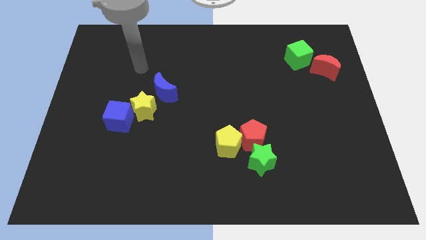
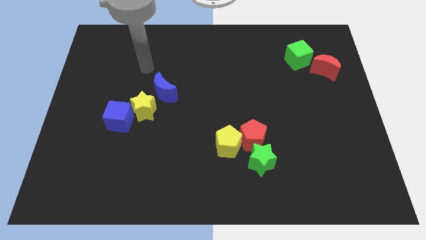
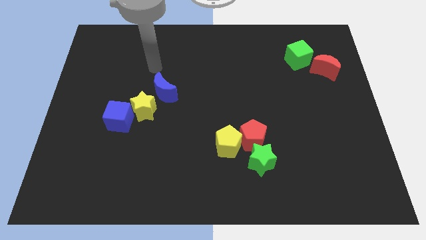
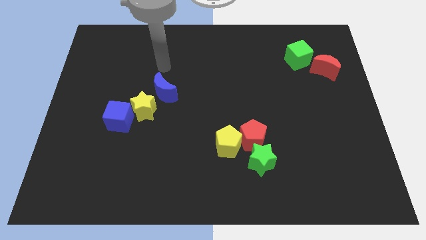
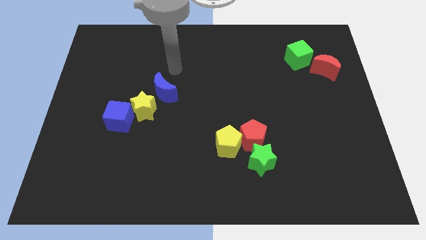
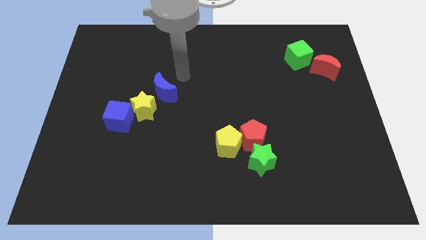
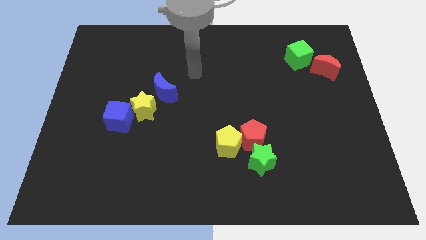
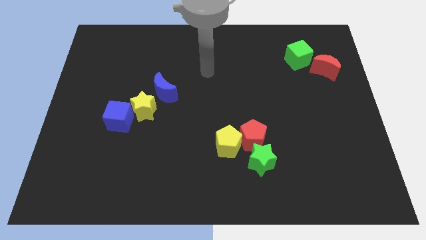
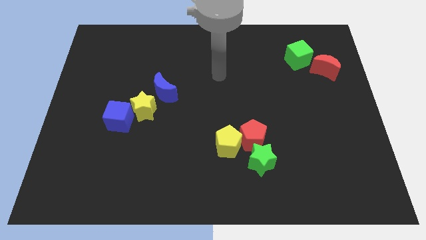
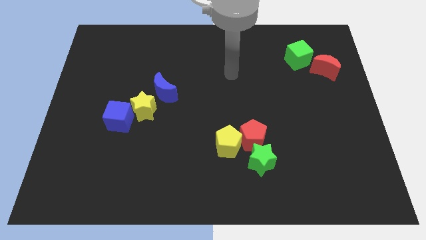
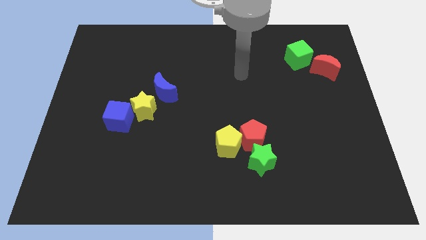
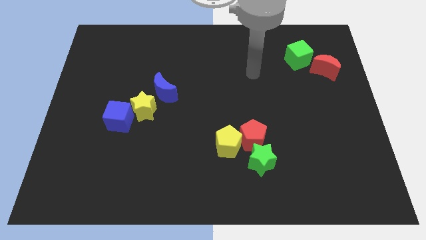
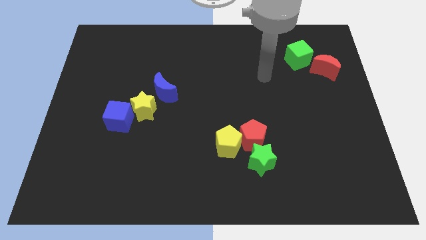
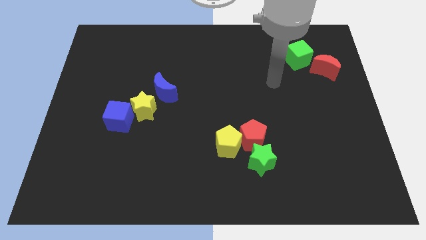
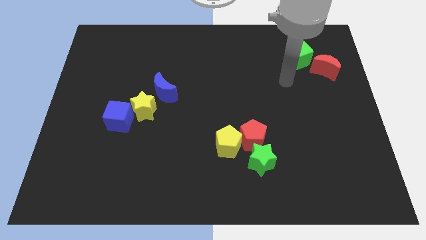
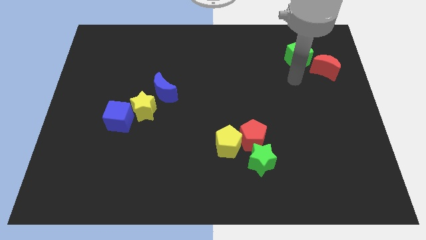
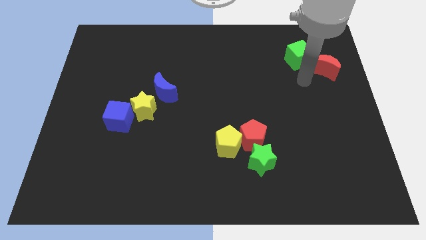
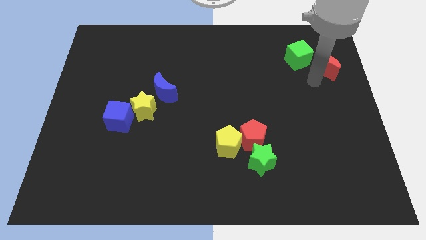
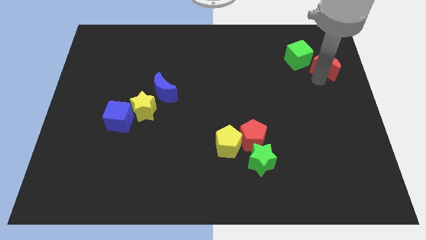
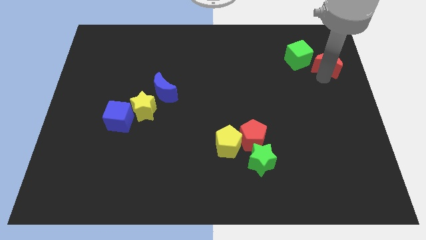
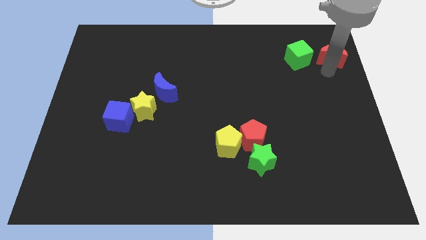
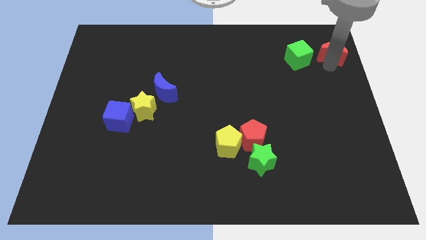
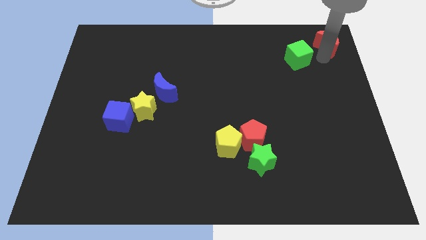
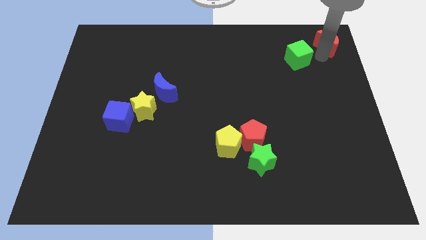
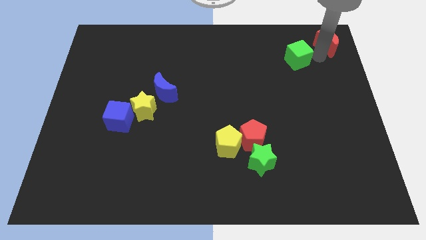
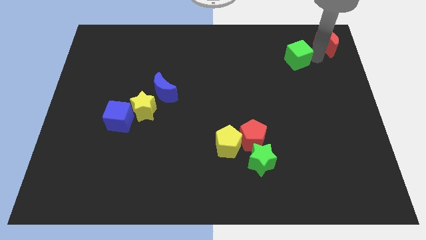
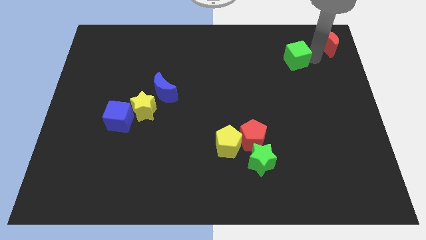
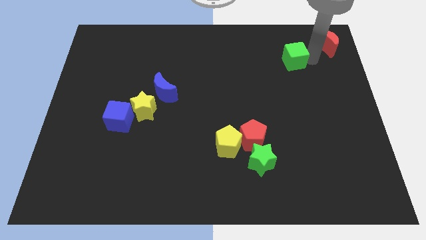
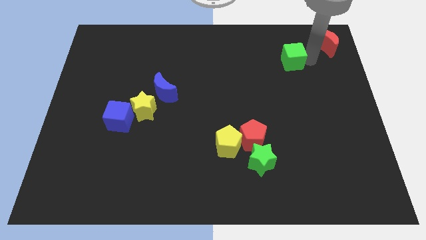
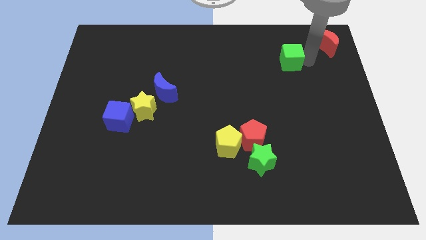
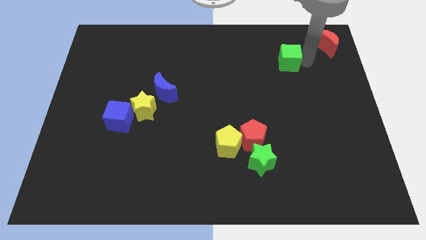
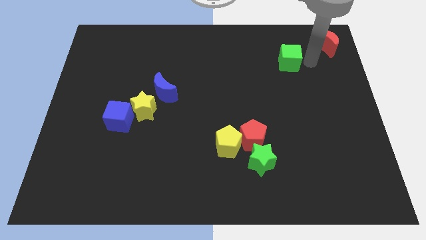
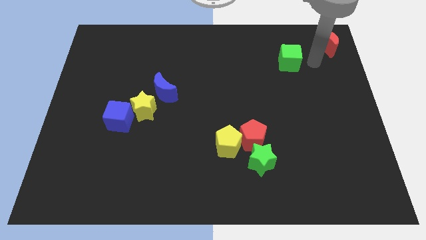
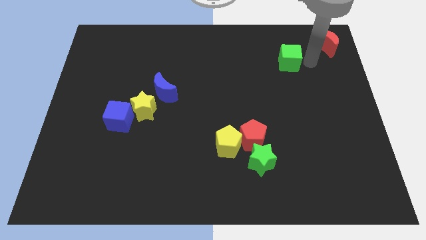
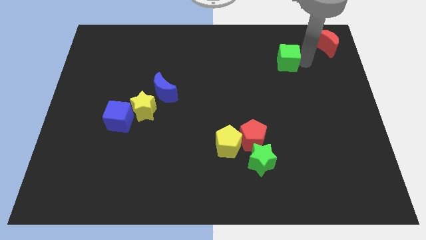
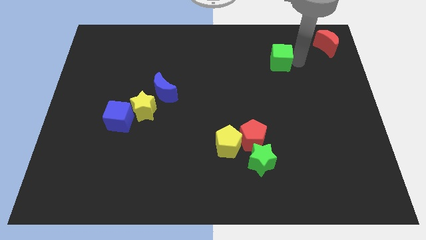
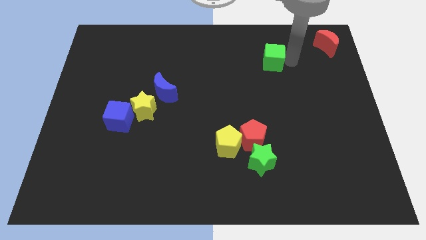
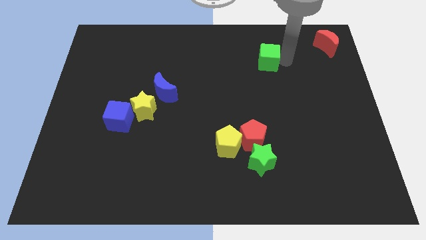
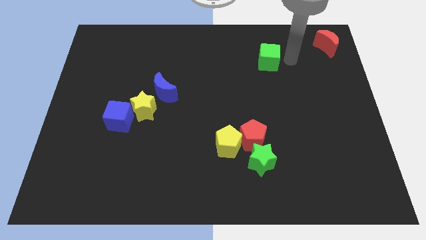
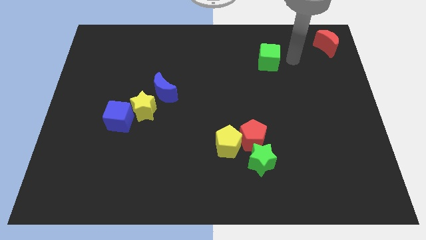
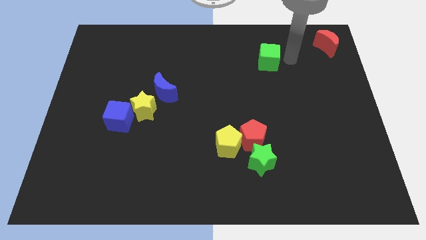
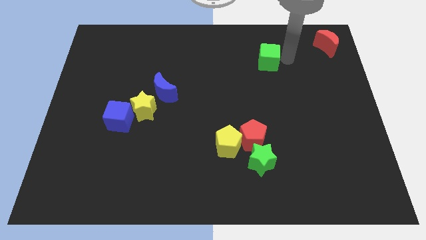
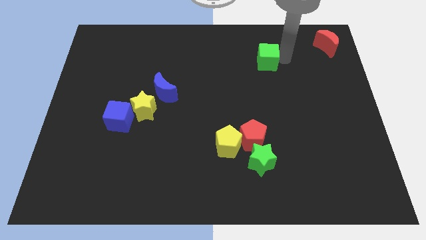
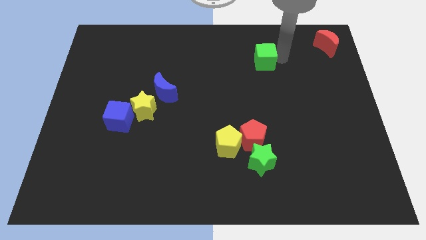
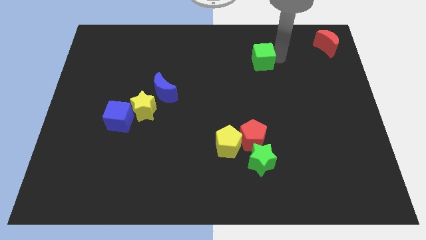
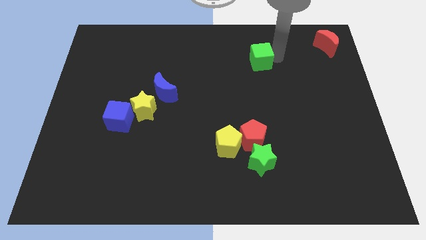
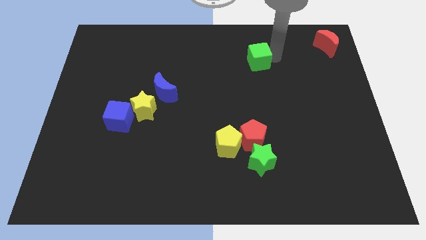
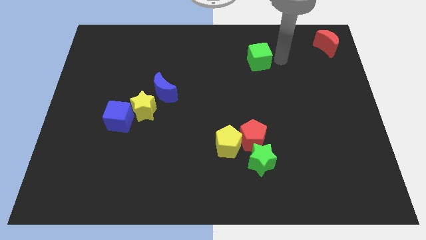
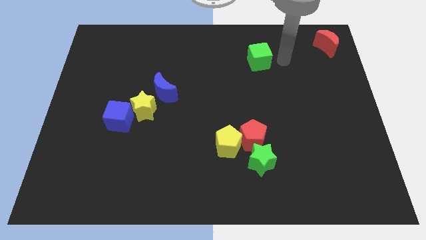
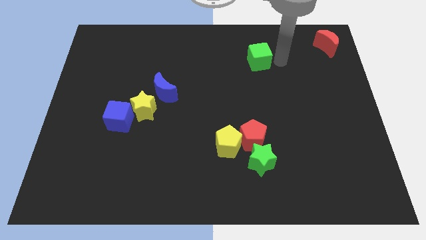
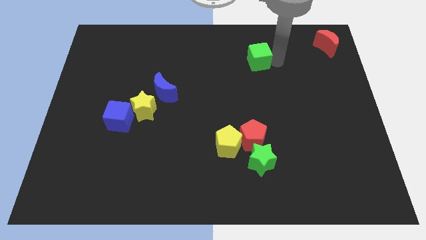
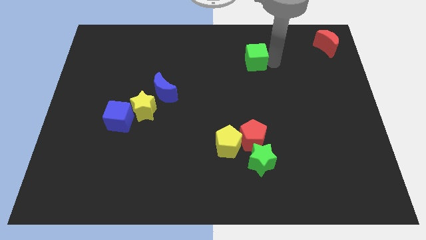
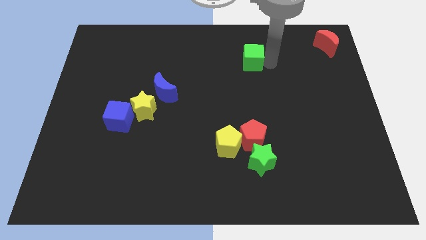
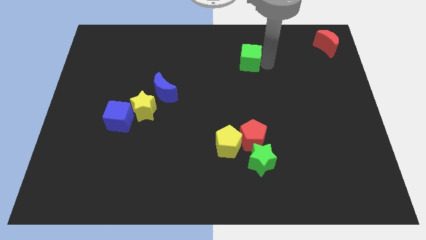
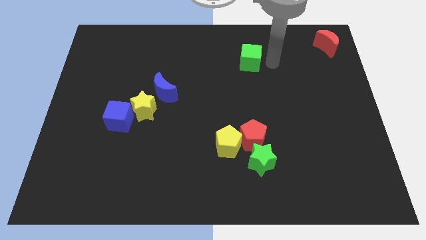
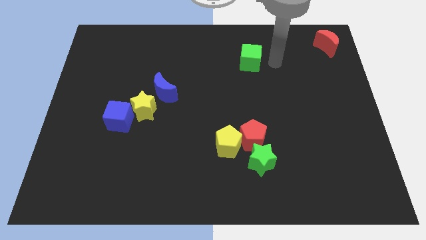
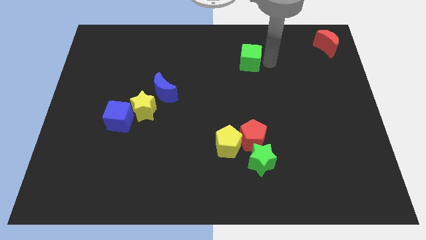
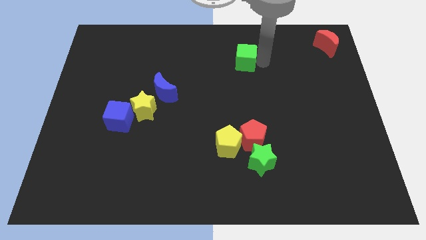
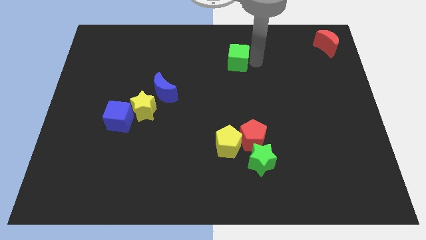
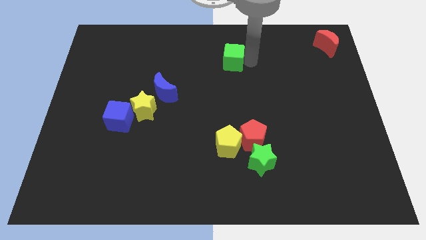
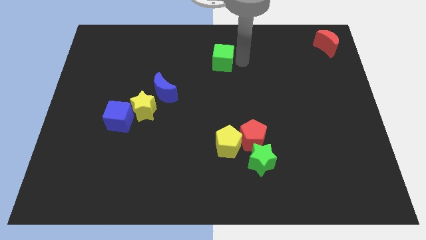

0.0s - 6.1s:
move the green cube left

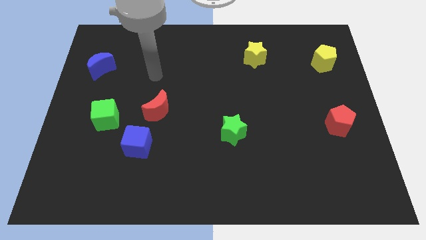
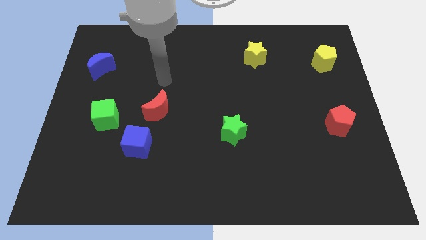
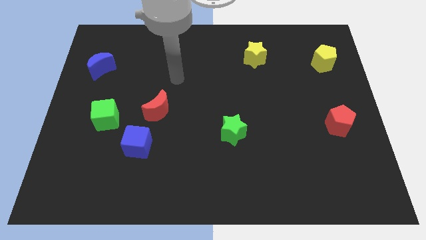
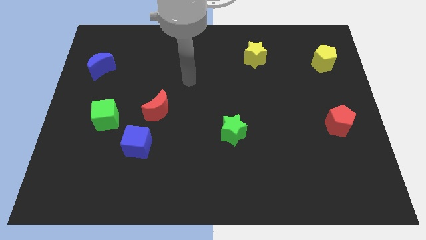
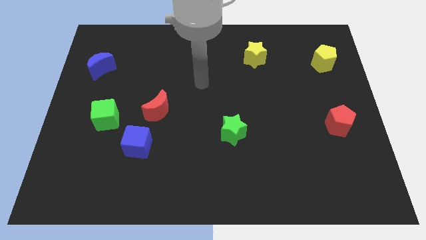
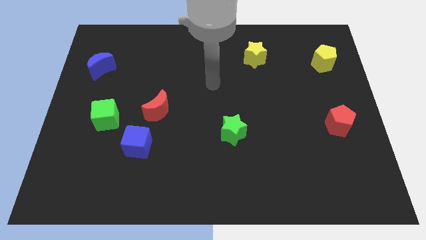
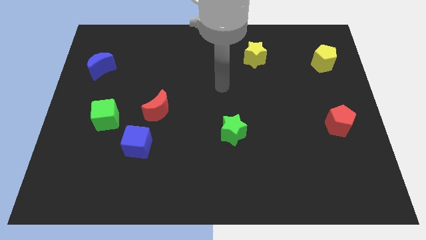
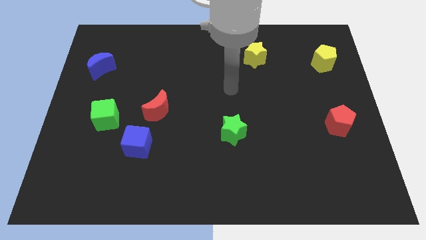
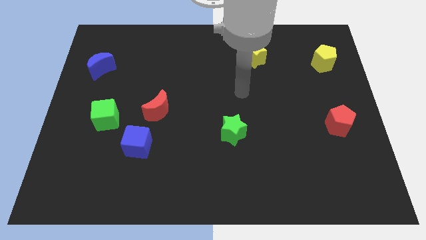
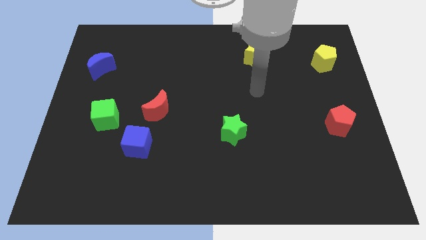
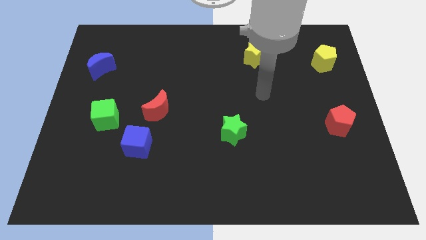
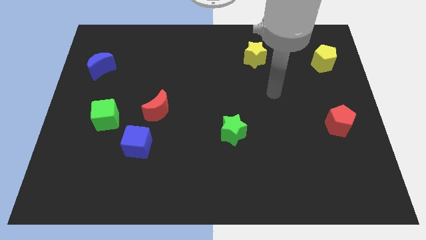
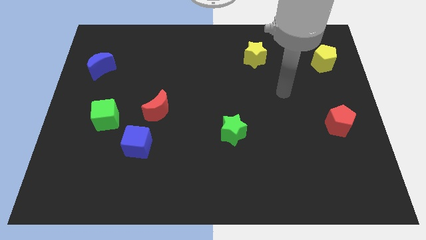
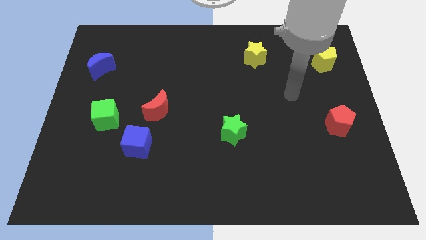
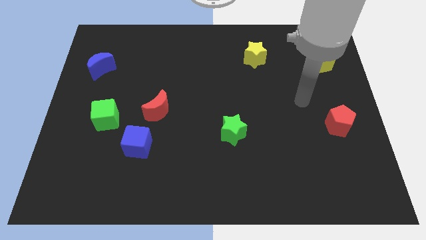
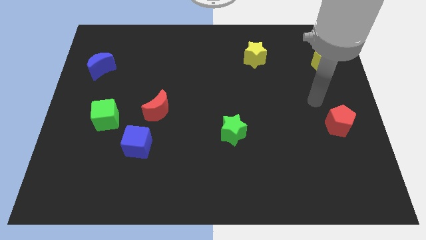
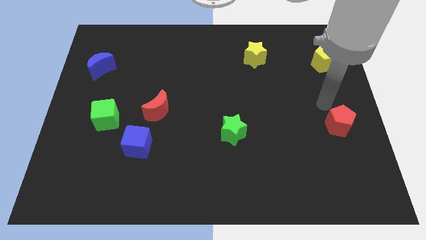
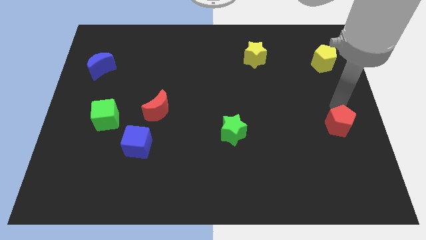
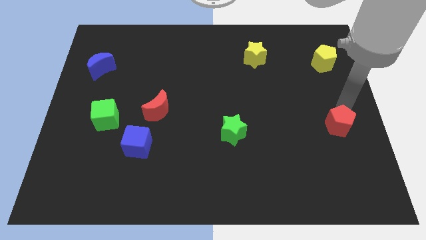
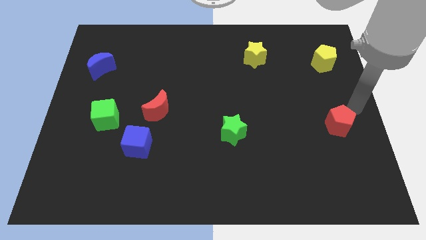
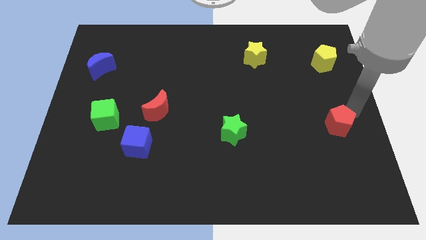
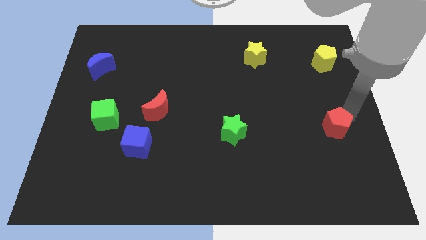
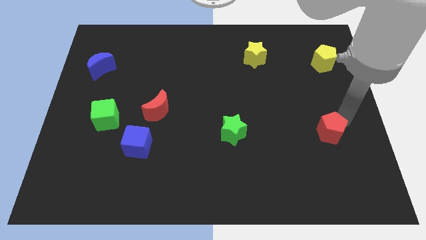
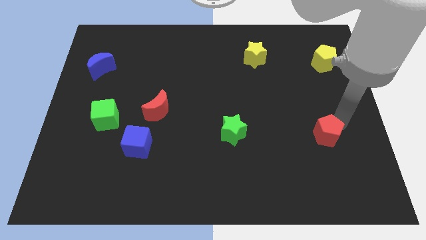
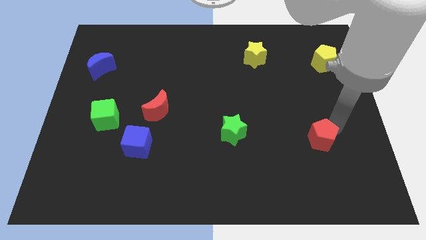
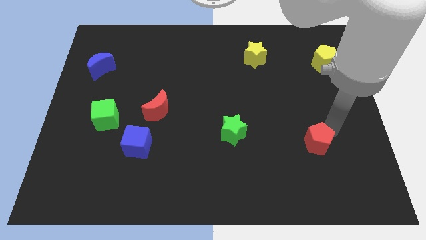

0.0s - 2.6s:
move the red pentagon downwards and left slightly
